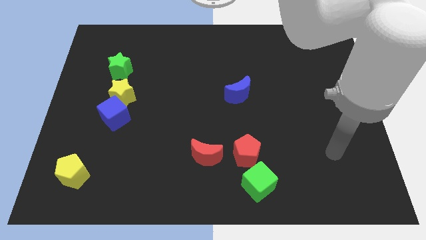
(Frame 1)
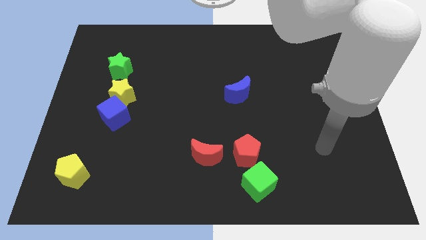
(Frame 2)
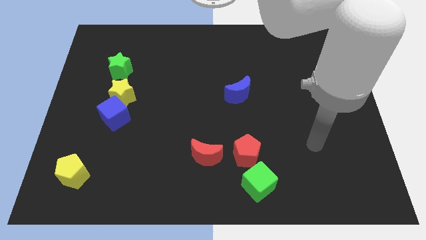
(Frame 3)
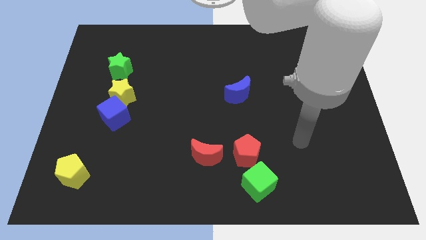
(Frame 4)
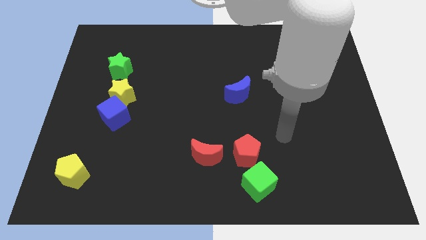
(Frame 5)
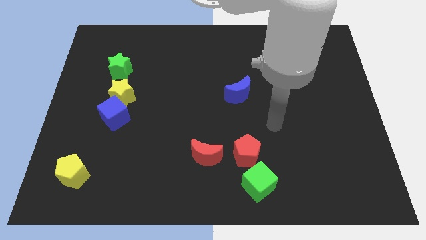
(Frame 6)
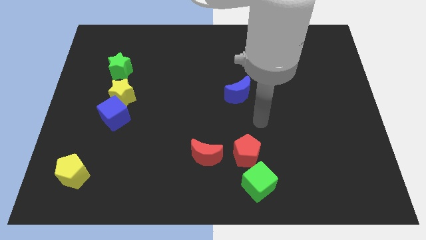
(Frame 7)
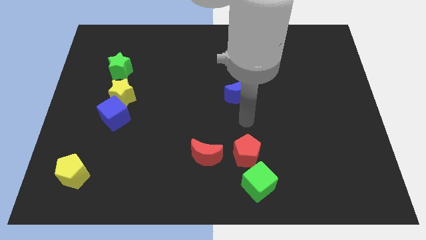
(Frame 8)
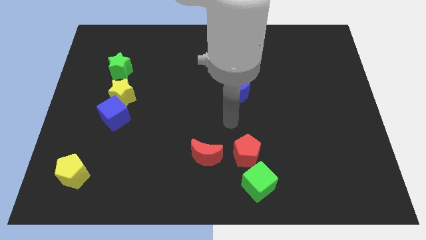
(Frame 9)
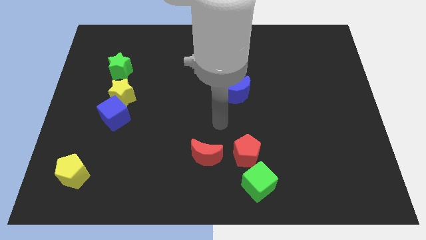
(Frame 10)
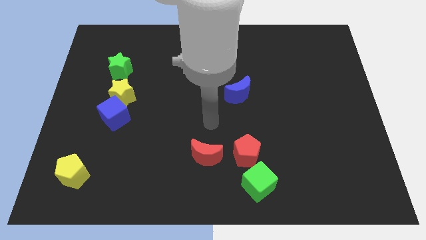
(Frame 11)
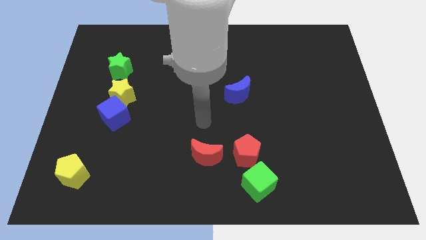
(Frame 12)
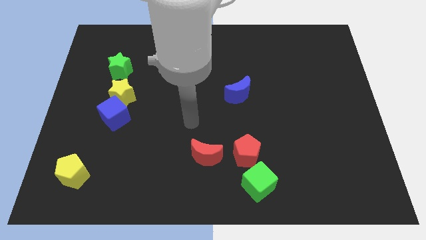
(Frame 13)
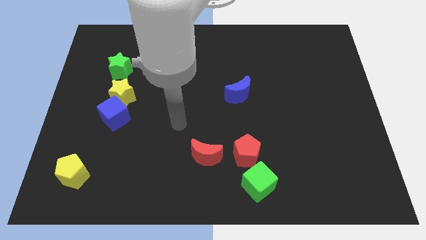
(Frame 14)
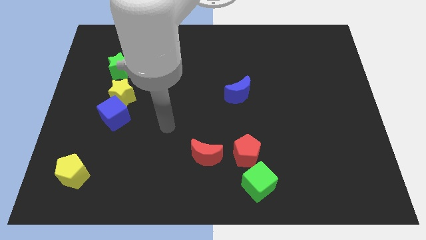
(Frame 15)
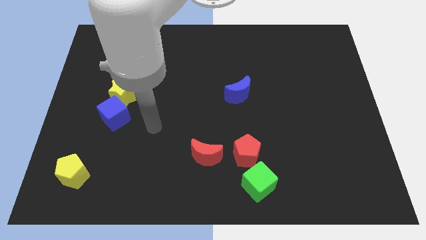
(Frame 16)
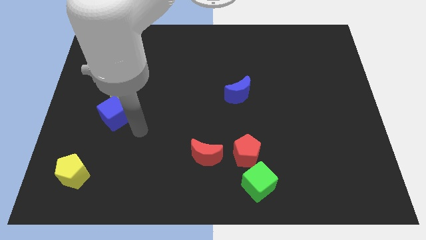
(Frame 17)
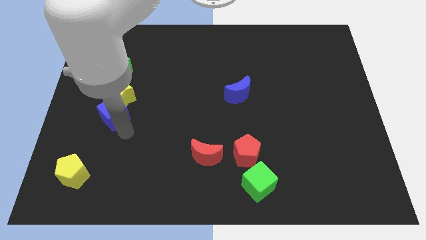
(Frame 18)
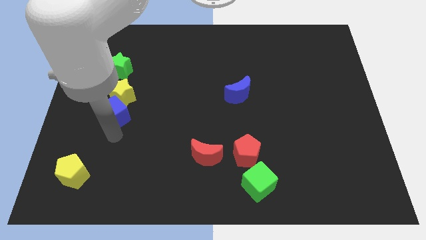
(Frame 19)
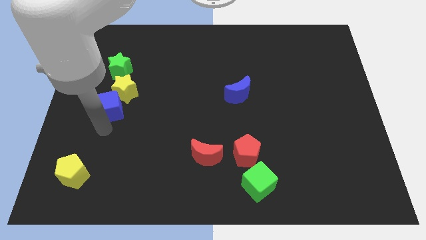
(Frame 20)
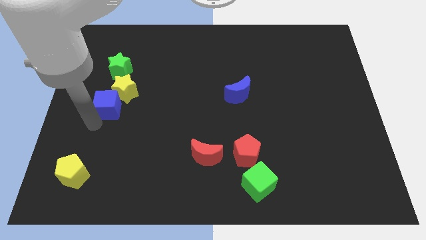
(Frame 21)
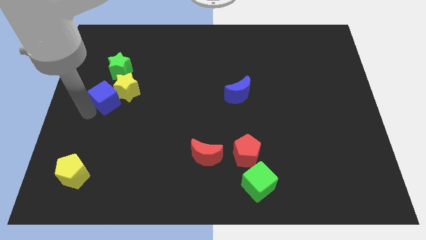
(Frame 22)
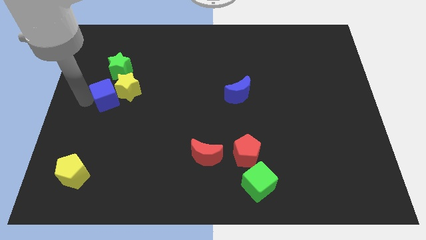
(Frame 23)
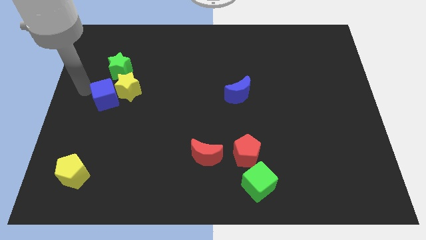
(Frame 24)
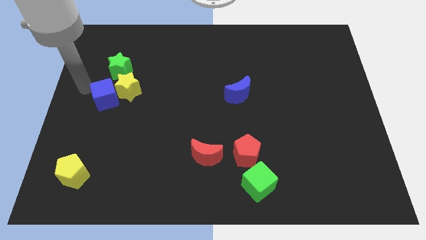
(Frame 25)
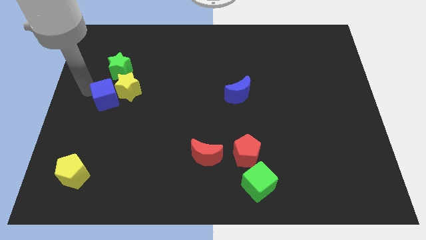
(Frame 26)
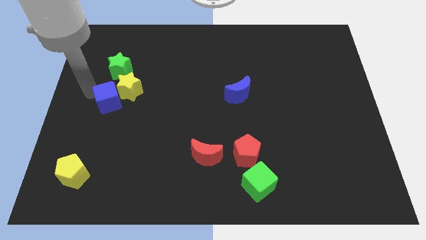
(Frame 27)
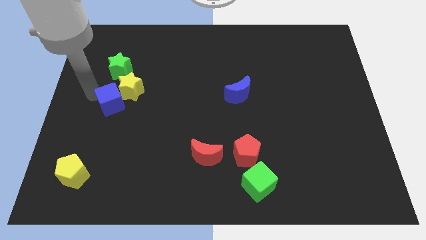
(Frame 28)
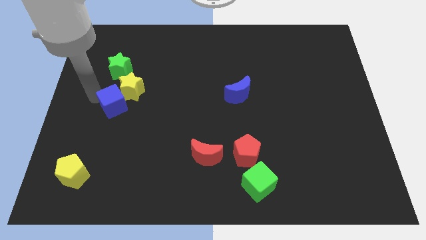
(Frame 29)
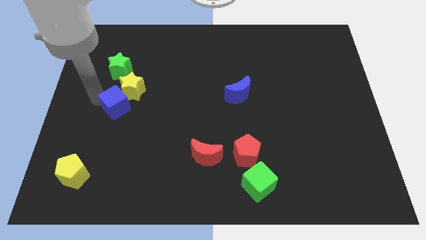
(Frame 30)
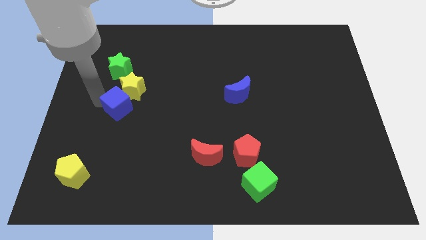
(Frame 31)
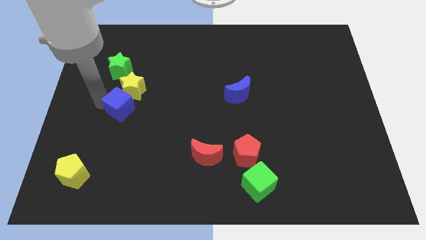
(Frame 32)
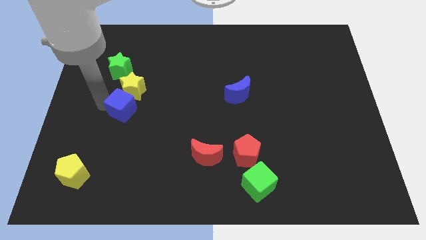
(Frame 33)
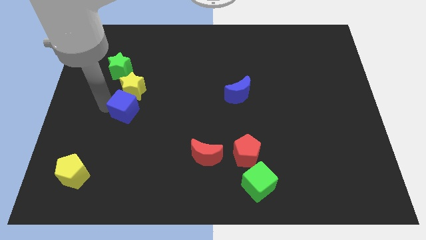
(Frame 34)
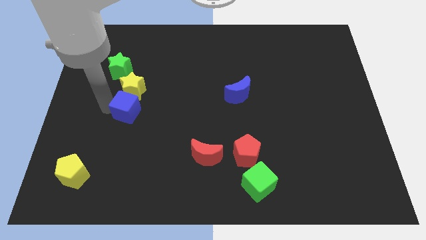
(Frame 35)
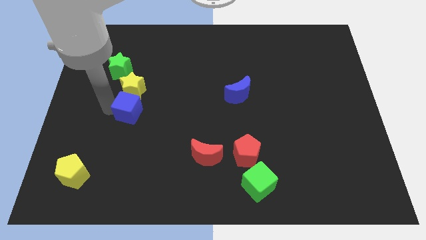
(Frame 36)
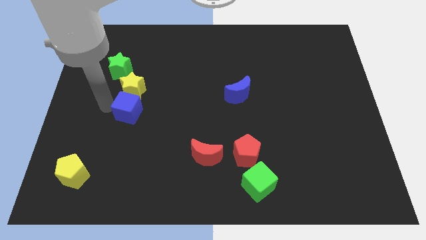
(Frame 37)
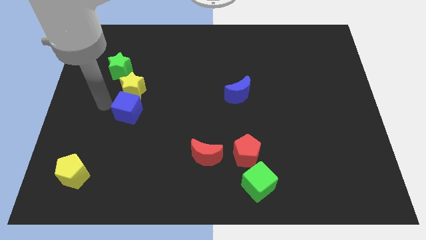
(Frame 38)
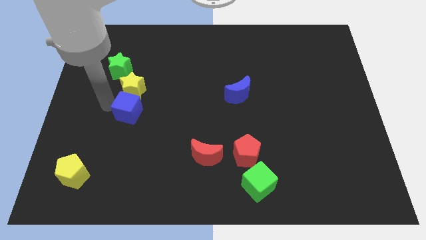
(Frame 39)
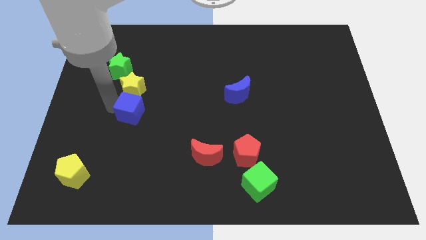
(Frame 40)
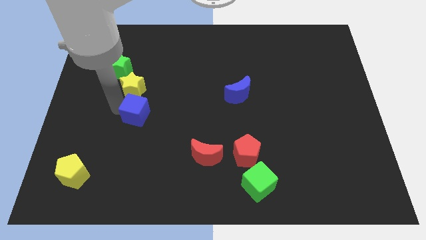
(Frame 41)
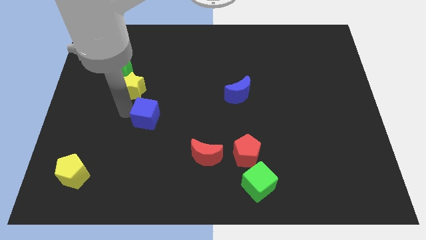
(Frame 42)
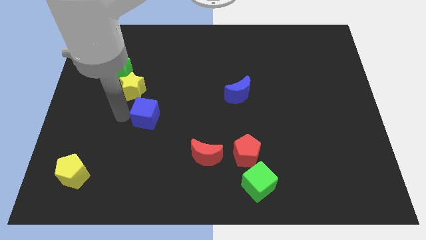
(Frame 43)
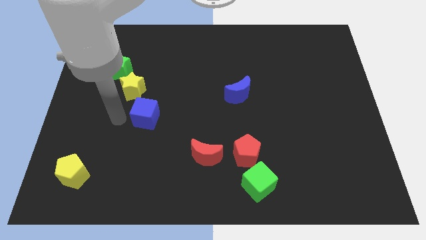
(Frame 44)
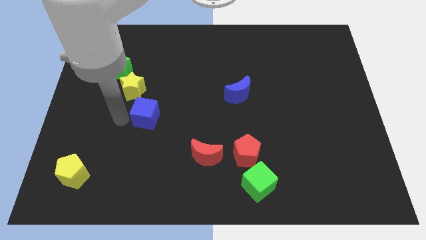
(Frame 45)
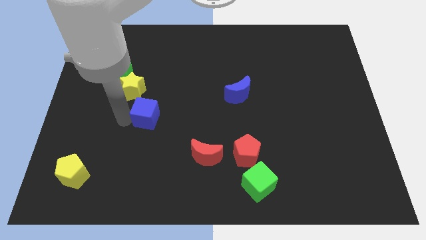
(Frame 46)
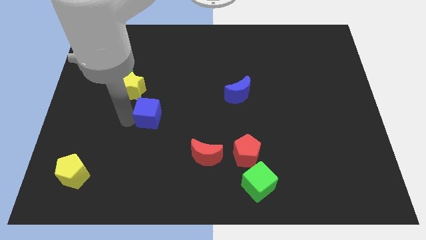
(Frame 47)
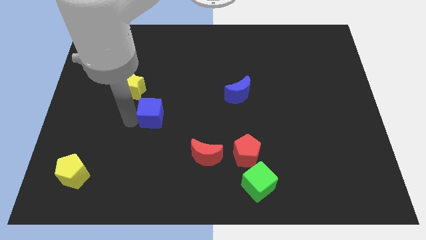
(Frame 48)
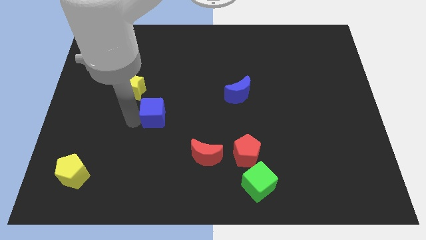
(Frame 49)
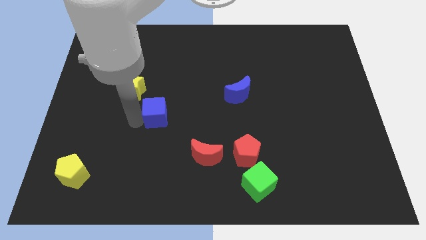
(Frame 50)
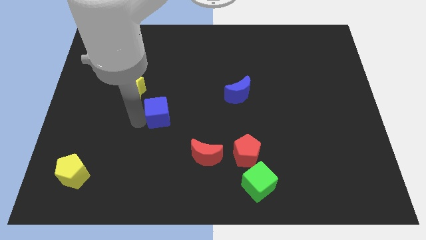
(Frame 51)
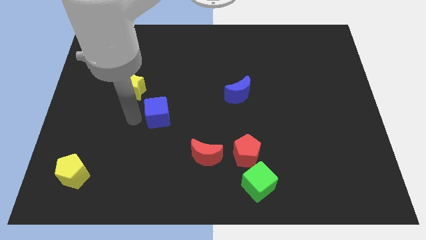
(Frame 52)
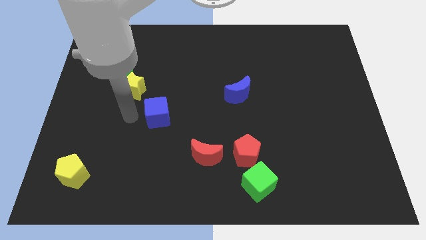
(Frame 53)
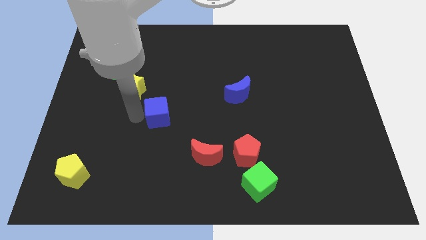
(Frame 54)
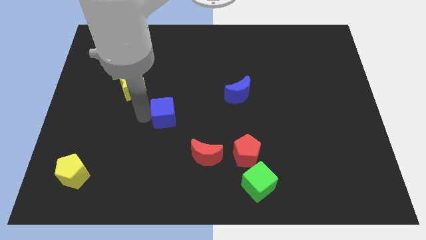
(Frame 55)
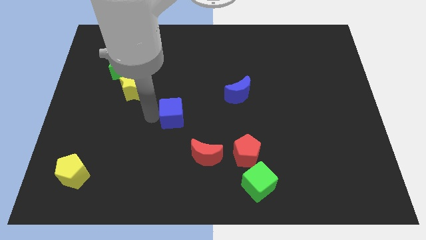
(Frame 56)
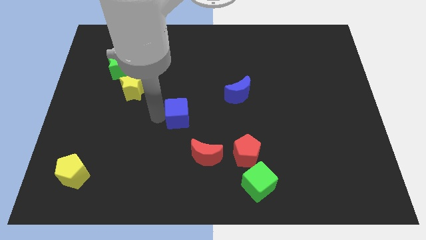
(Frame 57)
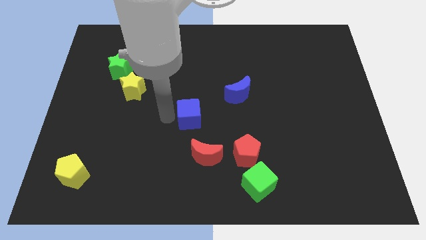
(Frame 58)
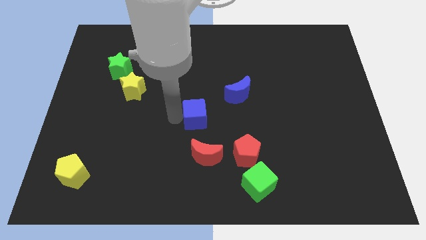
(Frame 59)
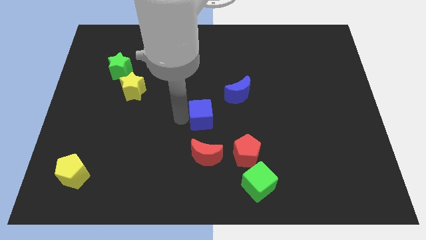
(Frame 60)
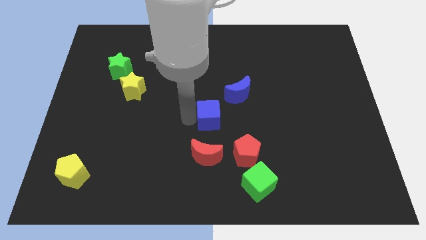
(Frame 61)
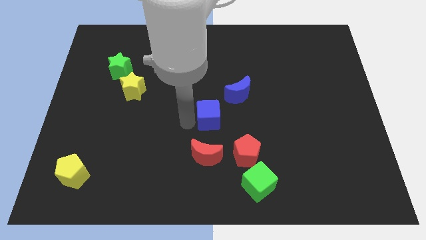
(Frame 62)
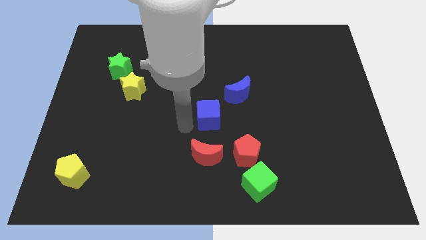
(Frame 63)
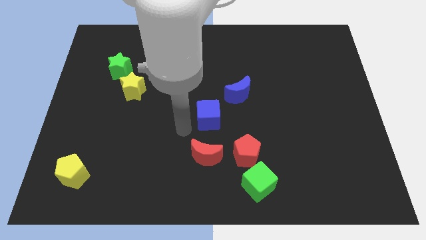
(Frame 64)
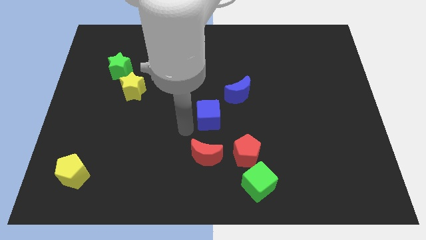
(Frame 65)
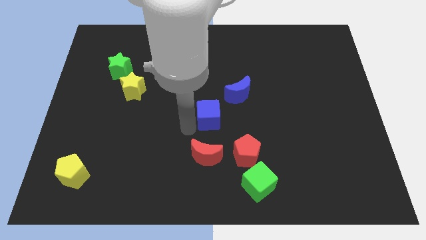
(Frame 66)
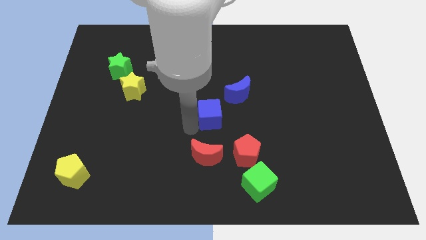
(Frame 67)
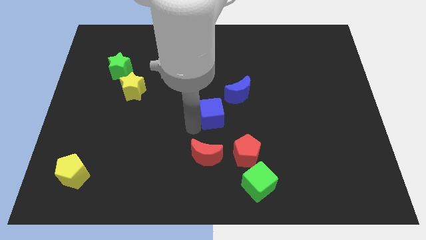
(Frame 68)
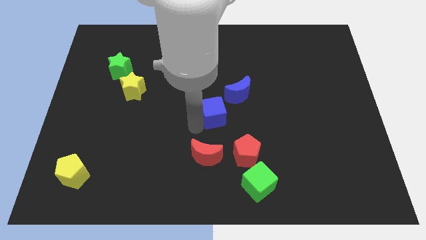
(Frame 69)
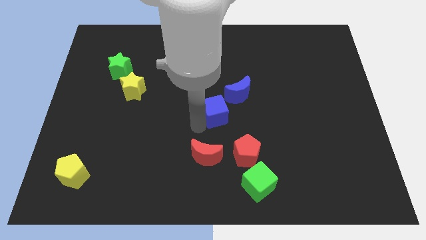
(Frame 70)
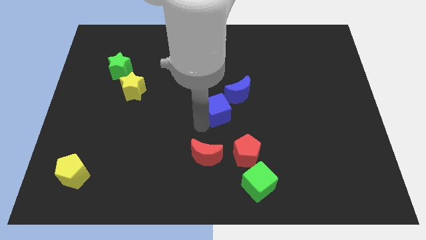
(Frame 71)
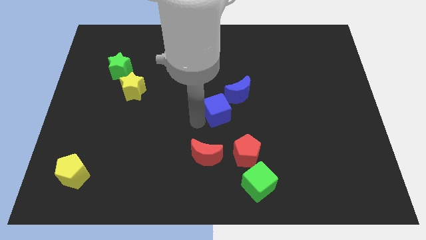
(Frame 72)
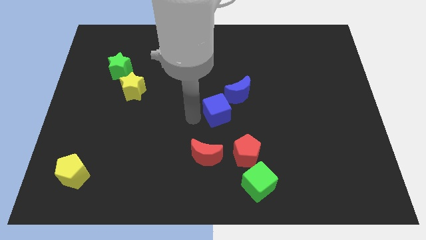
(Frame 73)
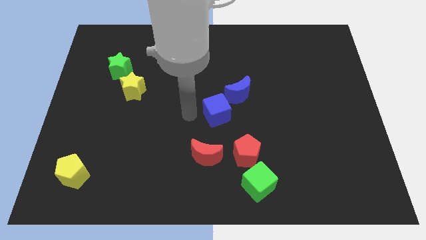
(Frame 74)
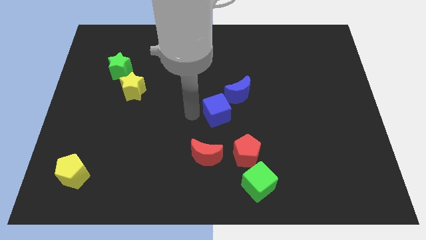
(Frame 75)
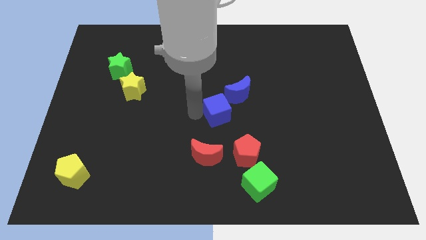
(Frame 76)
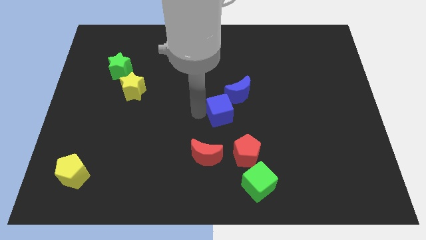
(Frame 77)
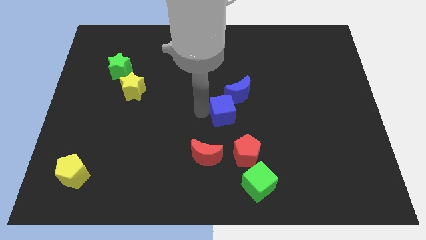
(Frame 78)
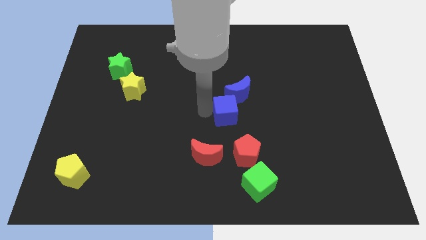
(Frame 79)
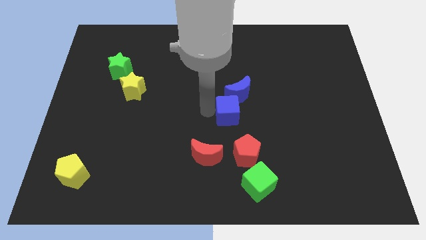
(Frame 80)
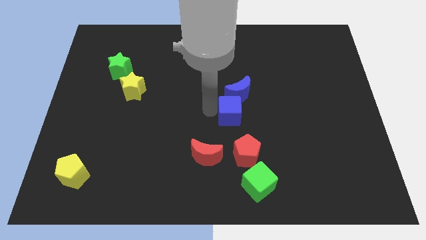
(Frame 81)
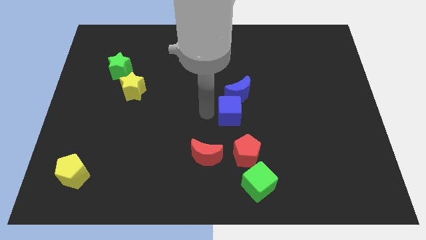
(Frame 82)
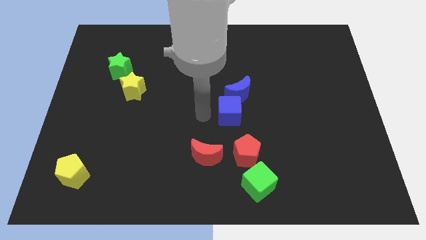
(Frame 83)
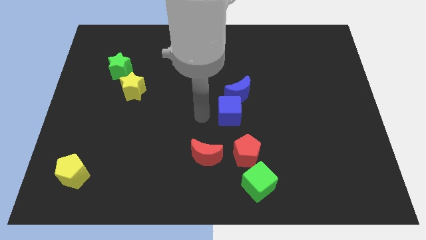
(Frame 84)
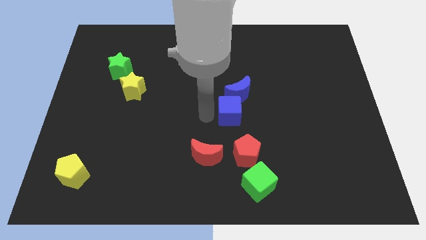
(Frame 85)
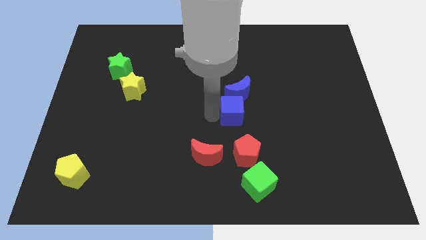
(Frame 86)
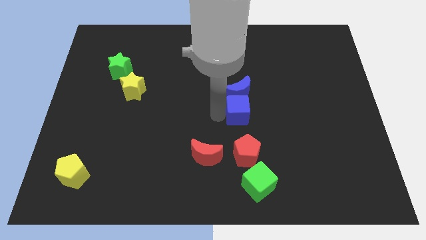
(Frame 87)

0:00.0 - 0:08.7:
push the blue cube to the bottom right of the blue moon
